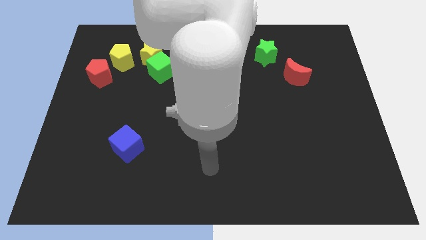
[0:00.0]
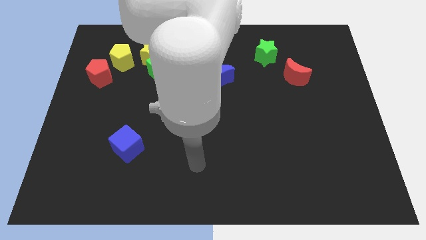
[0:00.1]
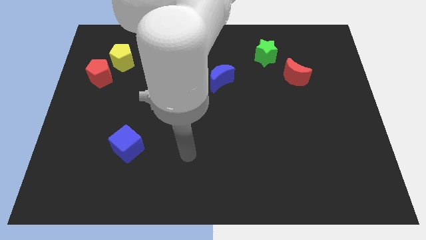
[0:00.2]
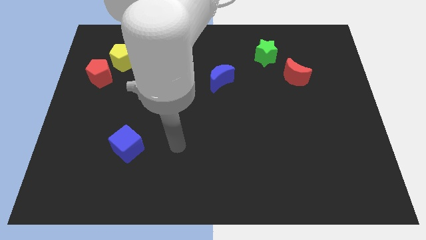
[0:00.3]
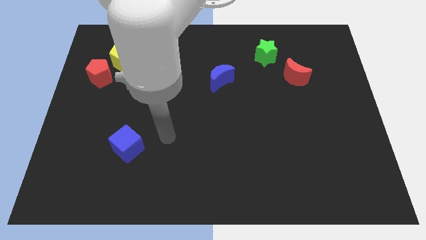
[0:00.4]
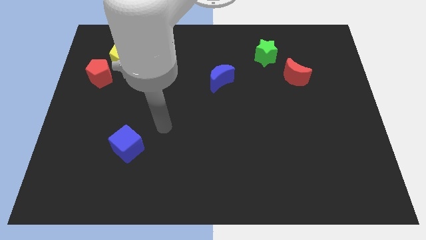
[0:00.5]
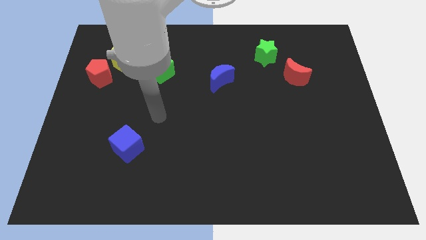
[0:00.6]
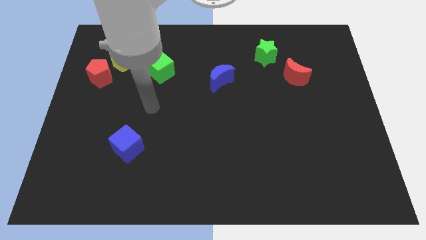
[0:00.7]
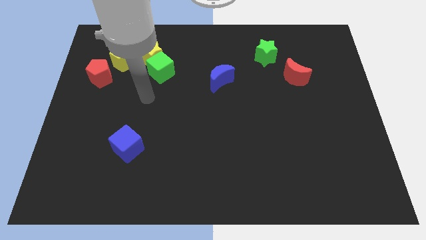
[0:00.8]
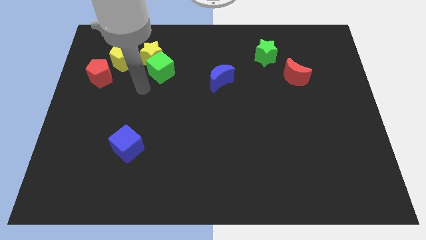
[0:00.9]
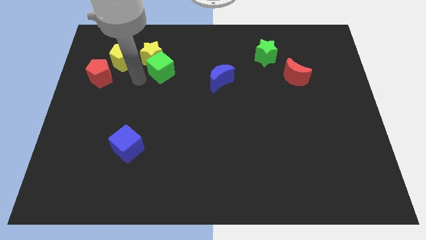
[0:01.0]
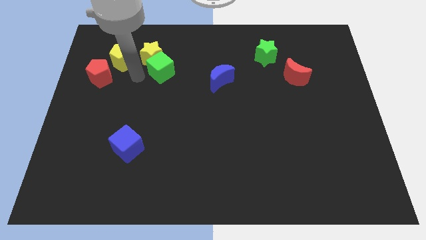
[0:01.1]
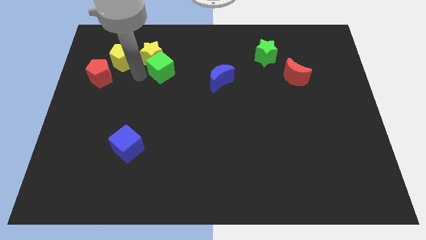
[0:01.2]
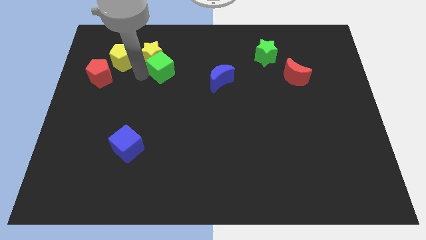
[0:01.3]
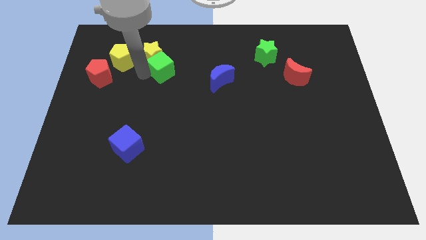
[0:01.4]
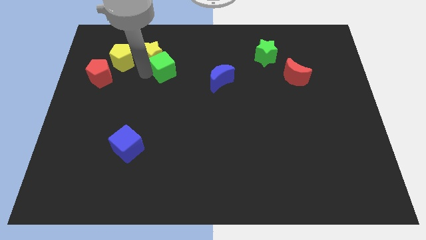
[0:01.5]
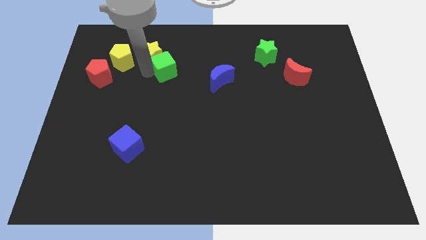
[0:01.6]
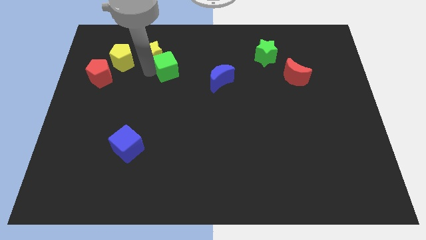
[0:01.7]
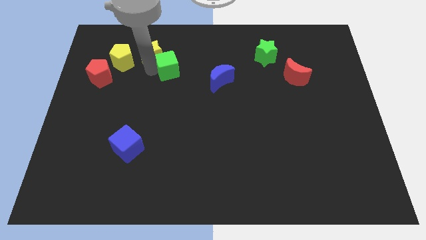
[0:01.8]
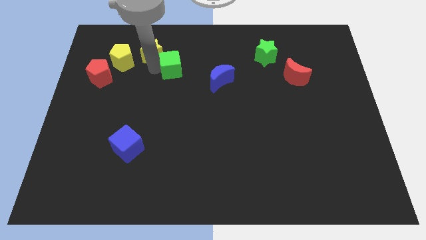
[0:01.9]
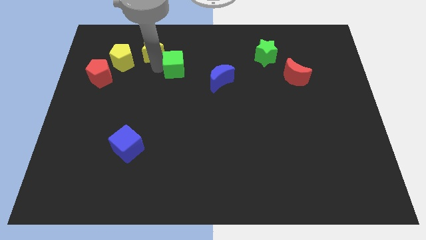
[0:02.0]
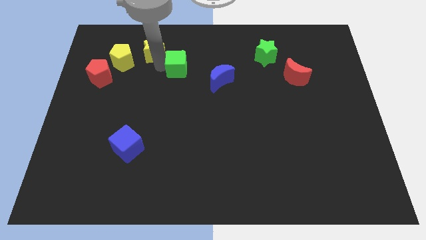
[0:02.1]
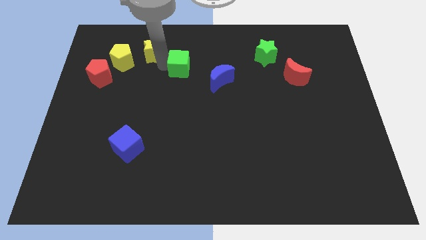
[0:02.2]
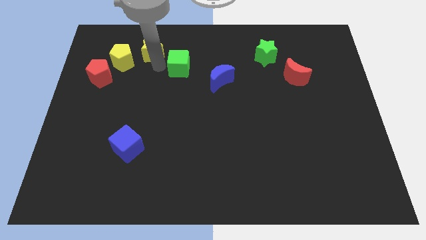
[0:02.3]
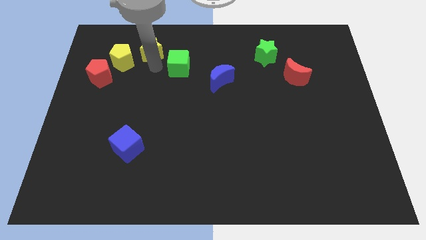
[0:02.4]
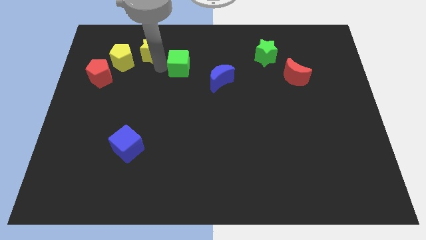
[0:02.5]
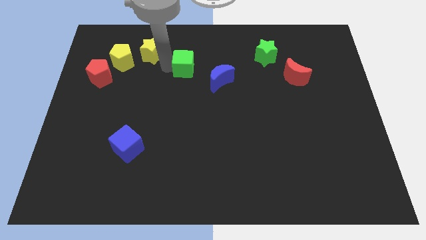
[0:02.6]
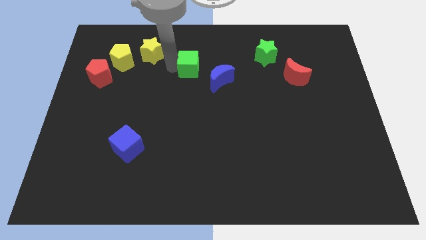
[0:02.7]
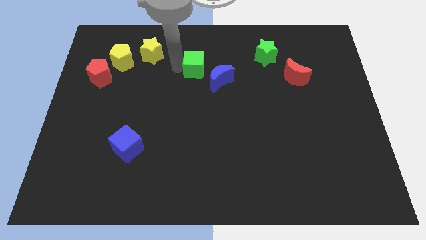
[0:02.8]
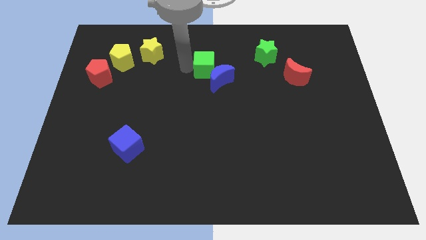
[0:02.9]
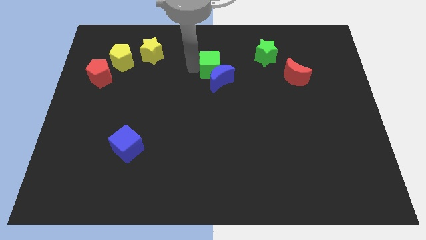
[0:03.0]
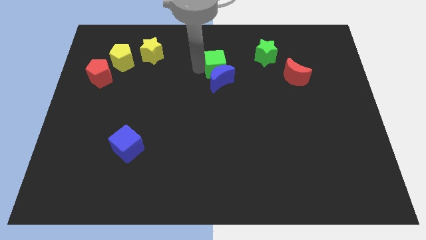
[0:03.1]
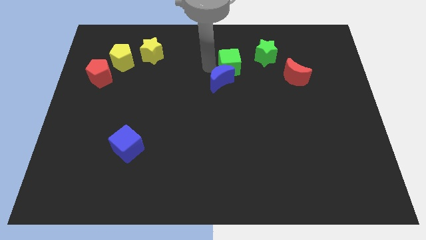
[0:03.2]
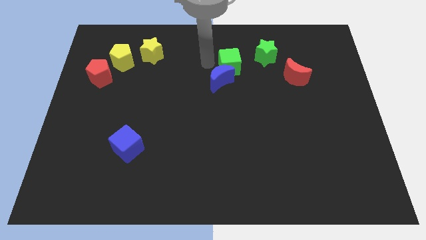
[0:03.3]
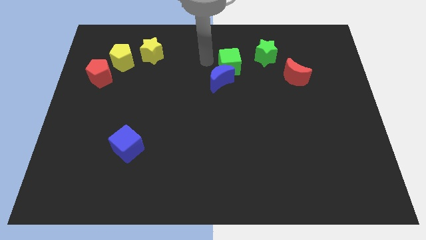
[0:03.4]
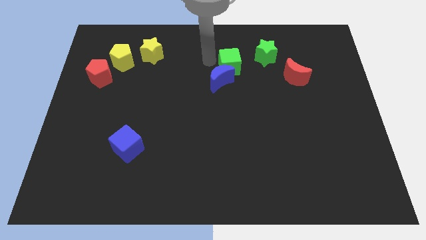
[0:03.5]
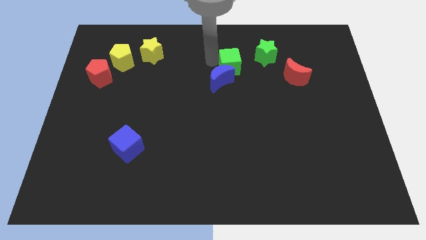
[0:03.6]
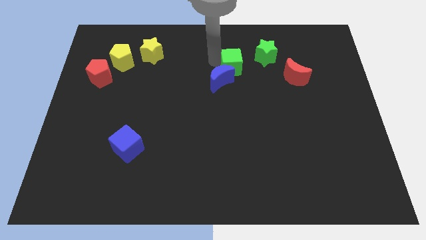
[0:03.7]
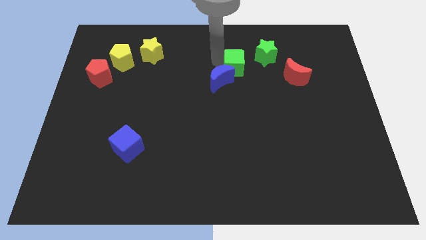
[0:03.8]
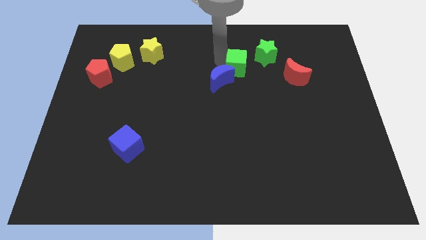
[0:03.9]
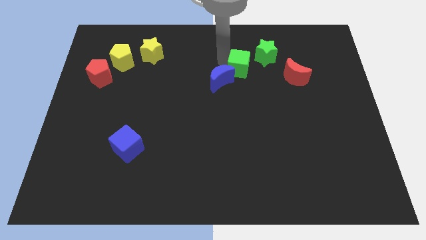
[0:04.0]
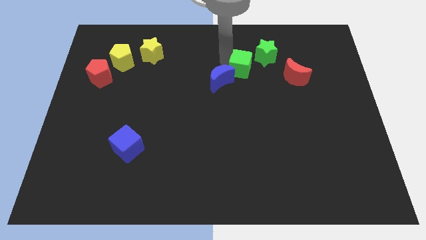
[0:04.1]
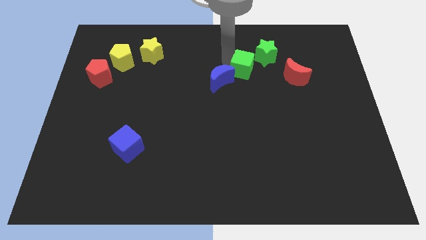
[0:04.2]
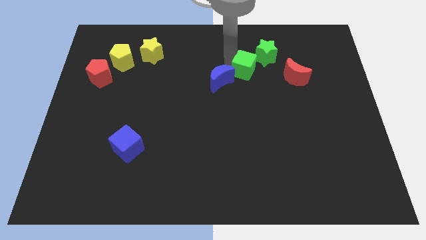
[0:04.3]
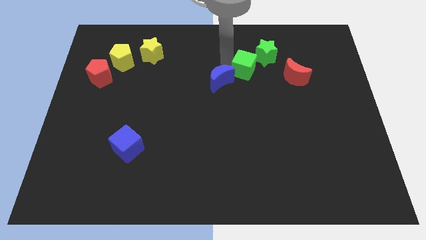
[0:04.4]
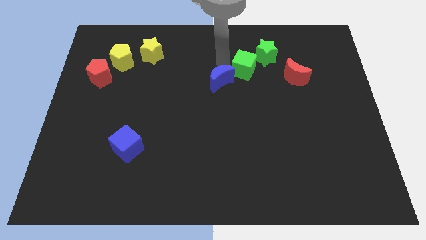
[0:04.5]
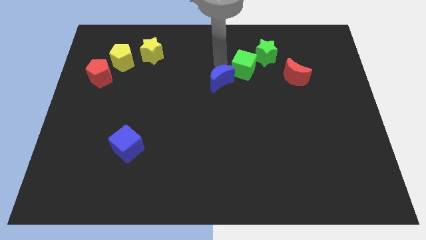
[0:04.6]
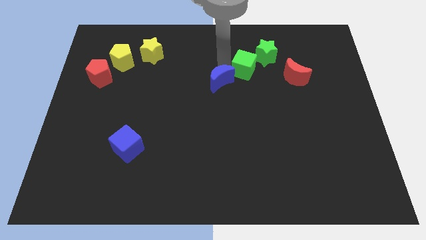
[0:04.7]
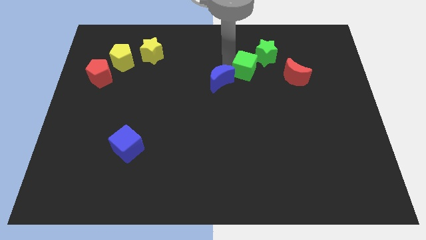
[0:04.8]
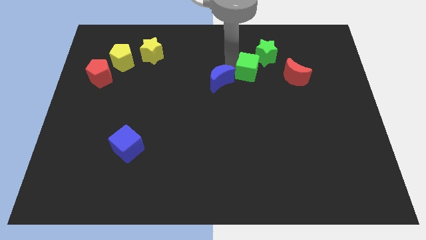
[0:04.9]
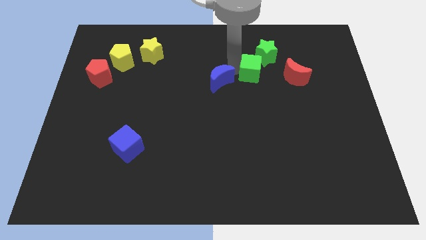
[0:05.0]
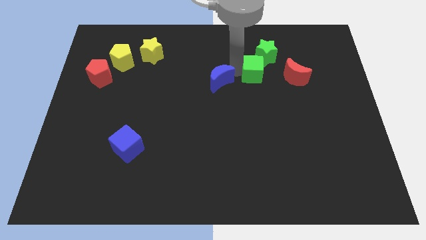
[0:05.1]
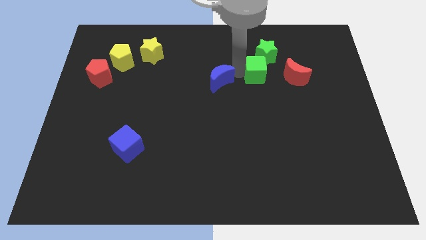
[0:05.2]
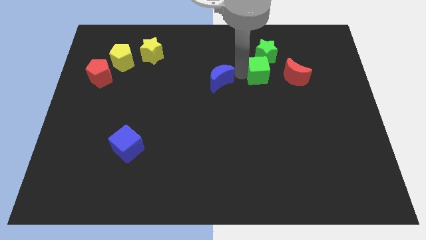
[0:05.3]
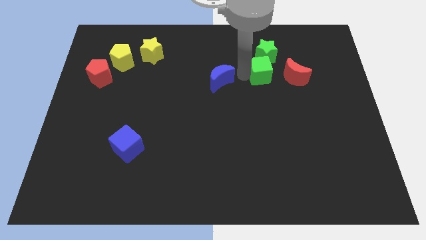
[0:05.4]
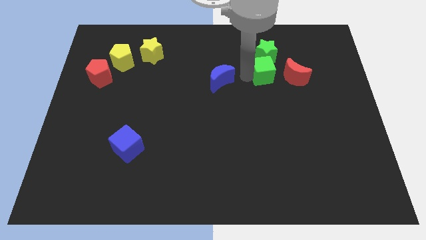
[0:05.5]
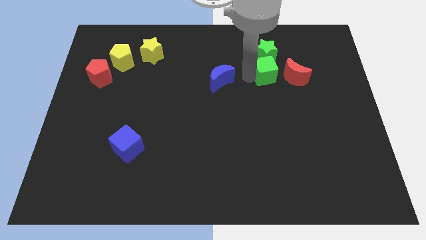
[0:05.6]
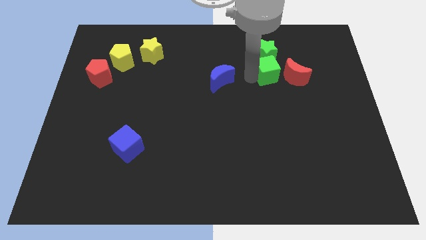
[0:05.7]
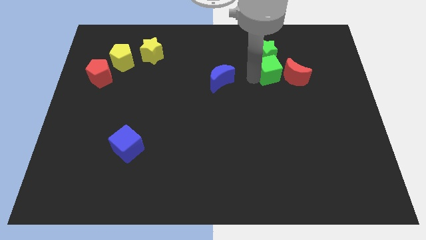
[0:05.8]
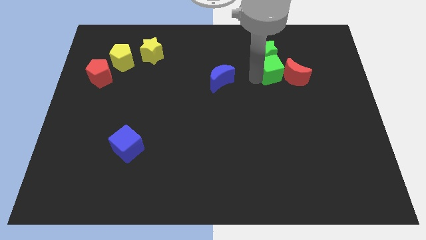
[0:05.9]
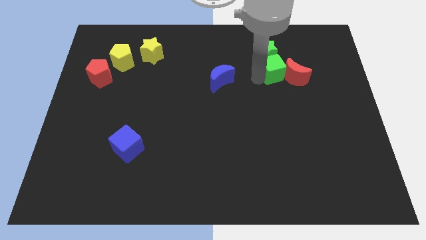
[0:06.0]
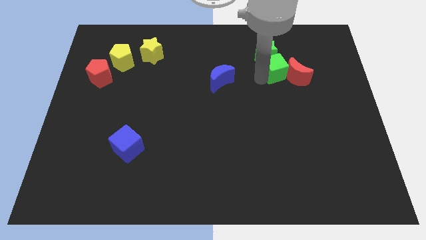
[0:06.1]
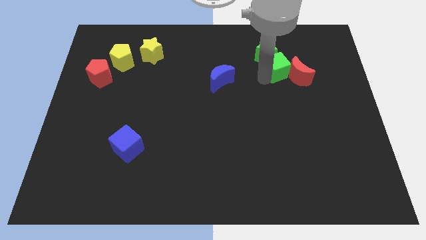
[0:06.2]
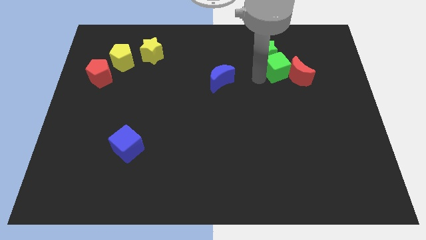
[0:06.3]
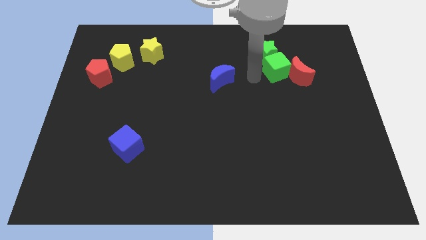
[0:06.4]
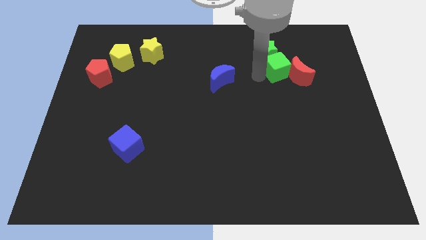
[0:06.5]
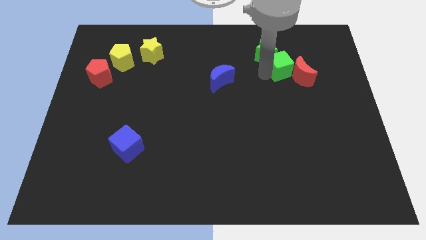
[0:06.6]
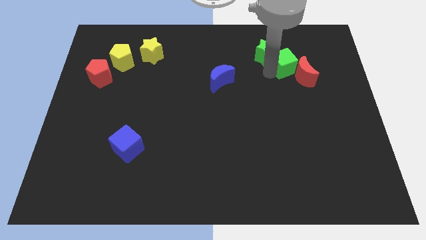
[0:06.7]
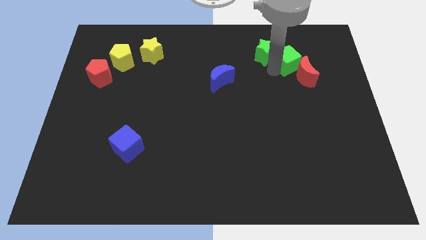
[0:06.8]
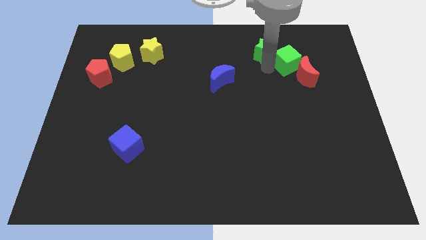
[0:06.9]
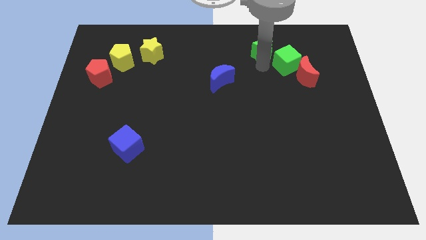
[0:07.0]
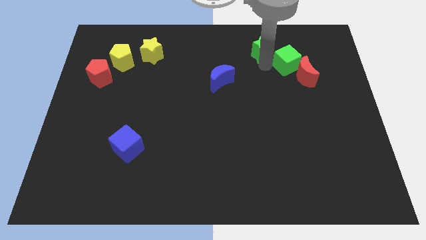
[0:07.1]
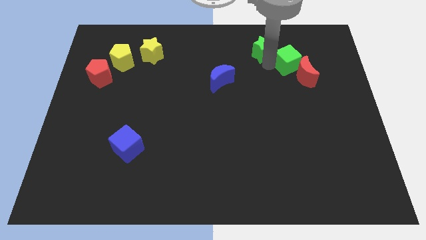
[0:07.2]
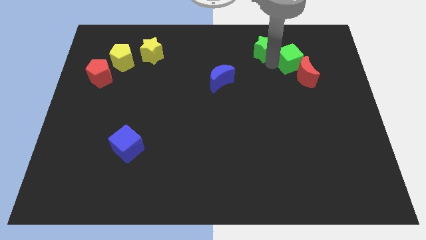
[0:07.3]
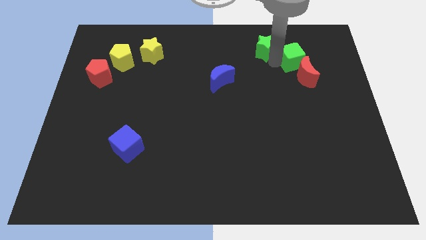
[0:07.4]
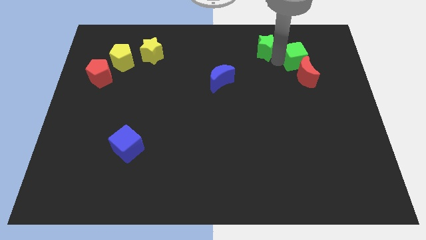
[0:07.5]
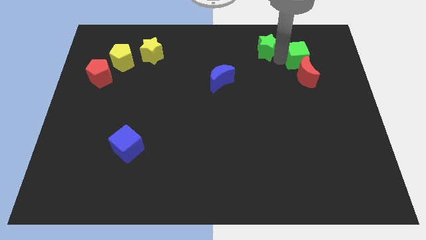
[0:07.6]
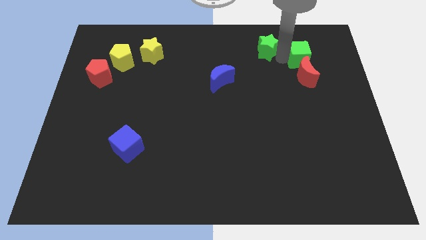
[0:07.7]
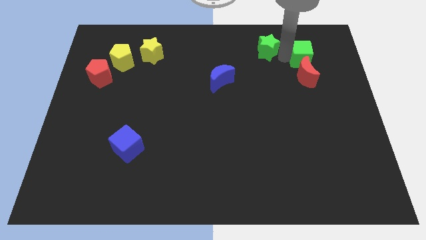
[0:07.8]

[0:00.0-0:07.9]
put the green cube to the top right of the red moon
